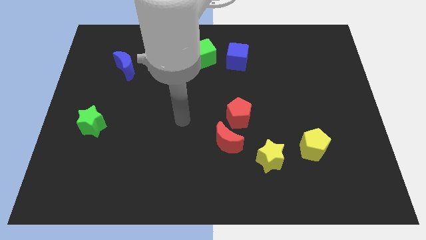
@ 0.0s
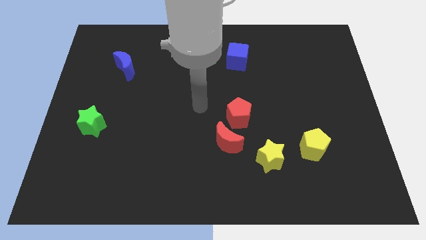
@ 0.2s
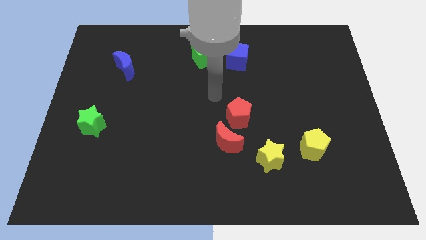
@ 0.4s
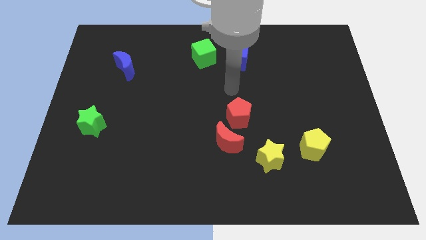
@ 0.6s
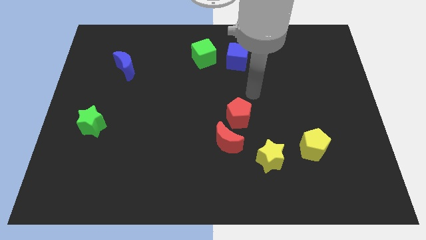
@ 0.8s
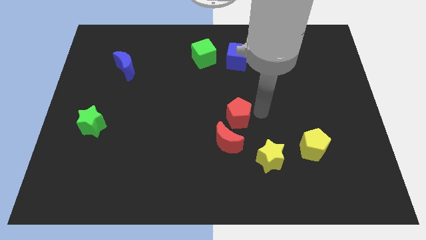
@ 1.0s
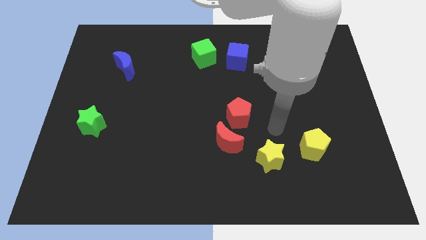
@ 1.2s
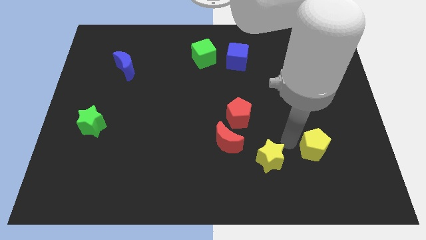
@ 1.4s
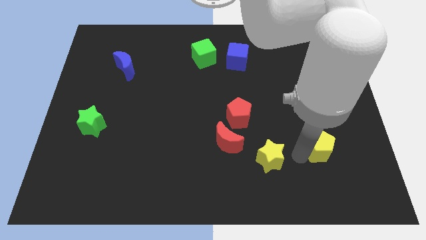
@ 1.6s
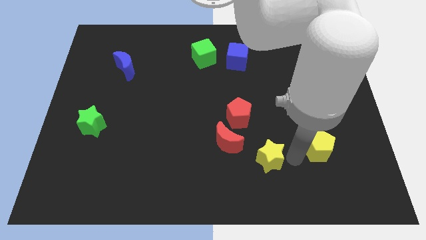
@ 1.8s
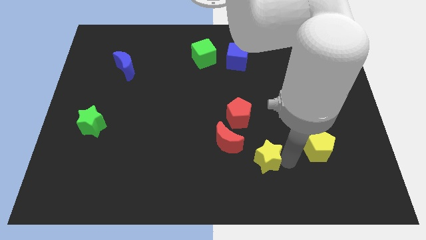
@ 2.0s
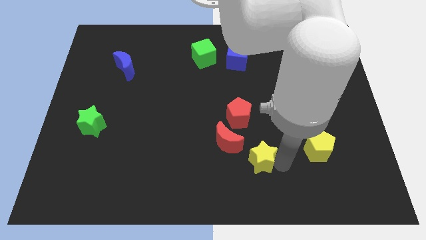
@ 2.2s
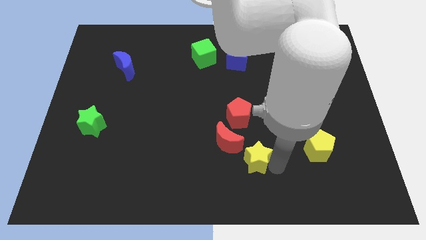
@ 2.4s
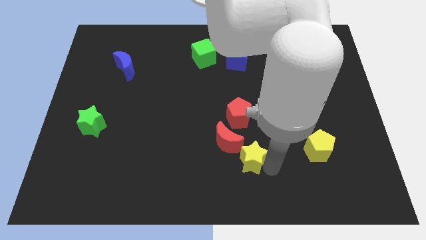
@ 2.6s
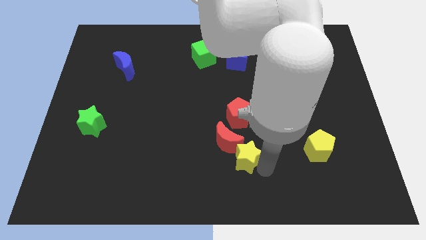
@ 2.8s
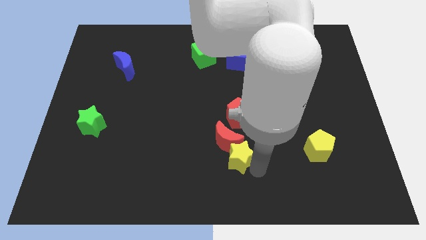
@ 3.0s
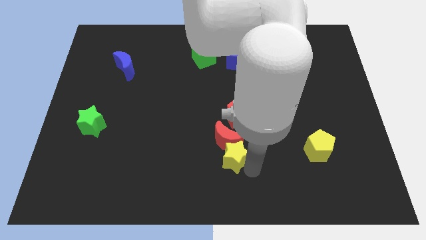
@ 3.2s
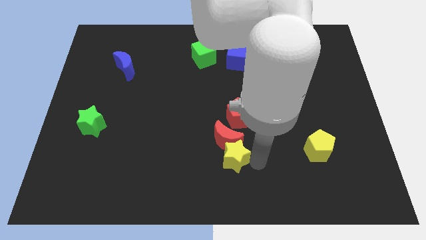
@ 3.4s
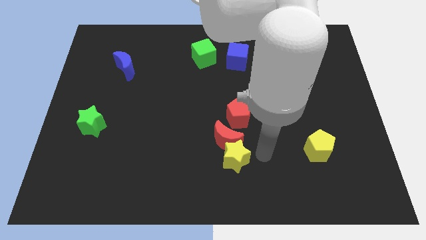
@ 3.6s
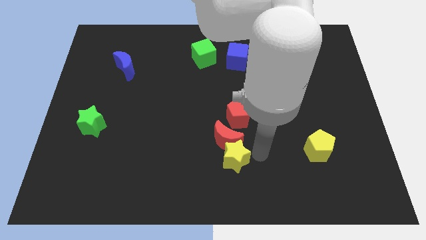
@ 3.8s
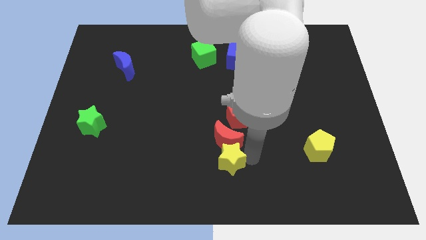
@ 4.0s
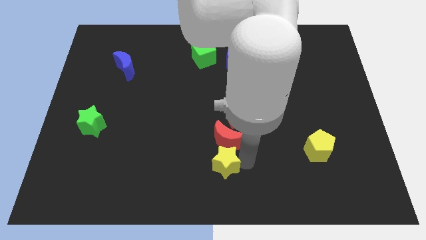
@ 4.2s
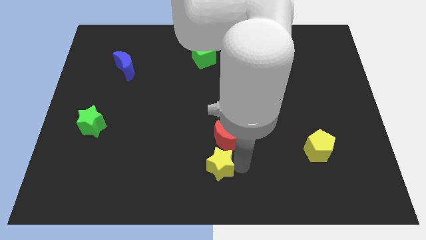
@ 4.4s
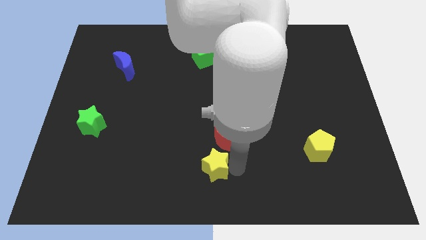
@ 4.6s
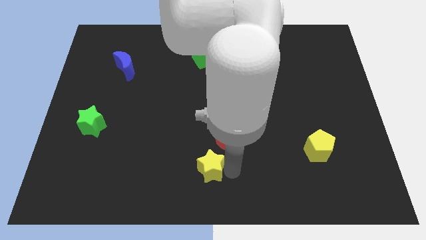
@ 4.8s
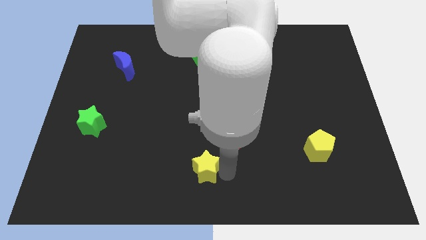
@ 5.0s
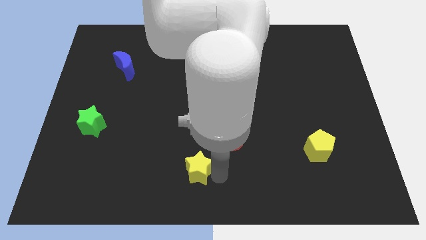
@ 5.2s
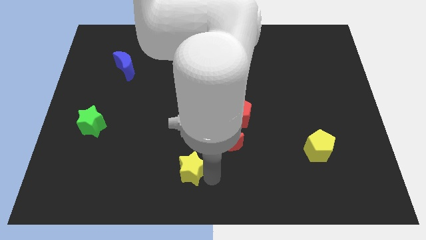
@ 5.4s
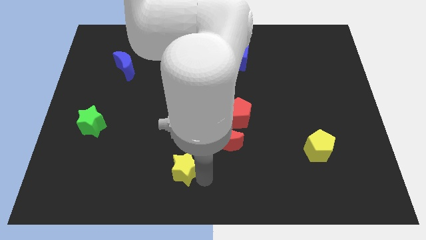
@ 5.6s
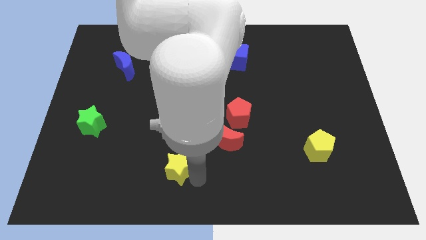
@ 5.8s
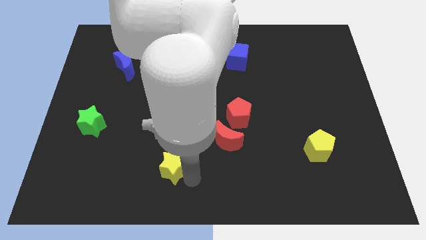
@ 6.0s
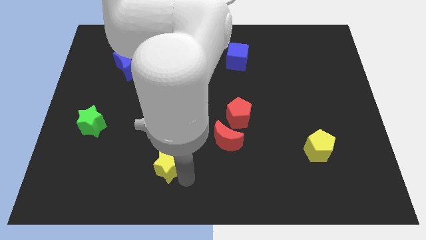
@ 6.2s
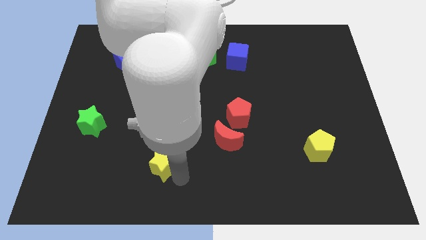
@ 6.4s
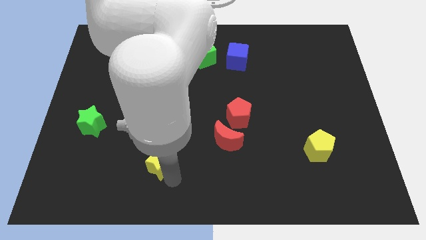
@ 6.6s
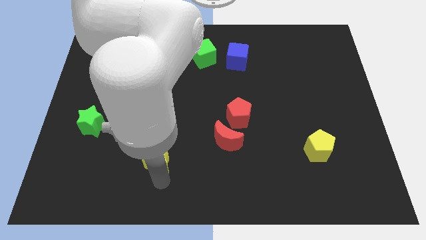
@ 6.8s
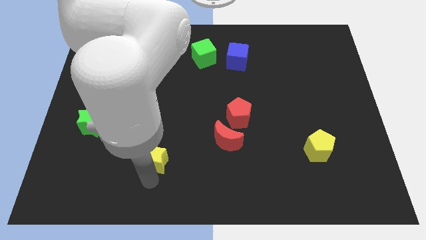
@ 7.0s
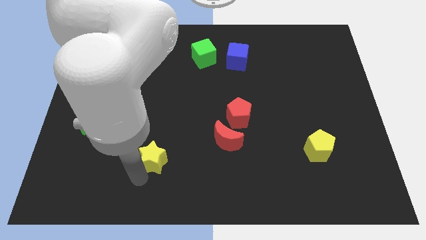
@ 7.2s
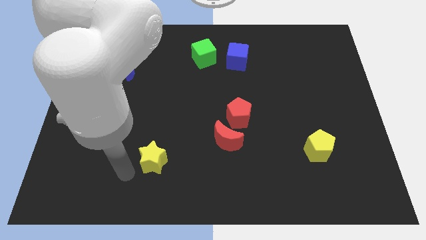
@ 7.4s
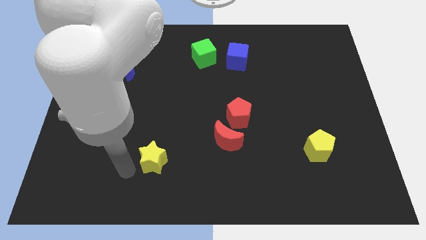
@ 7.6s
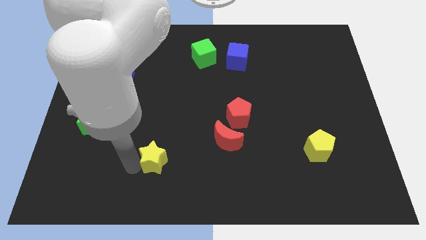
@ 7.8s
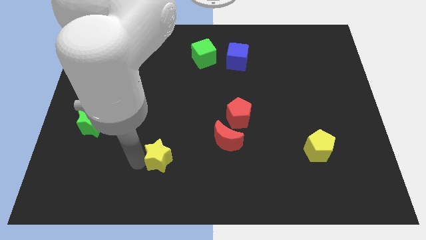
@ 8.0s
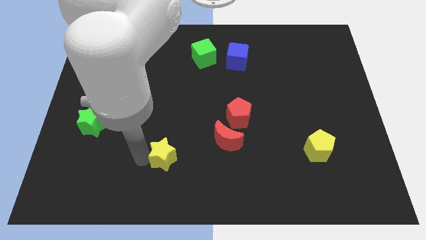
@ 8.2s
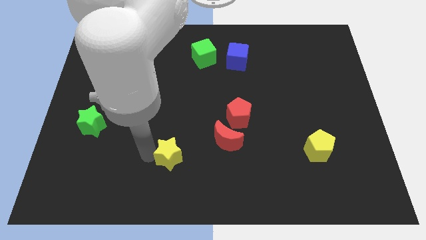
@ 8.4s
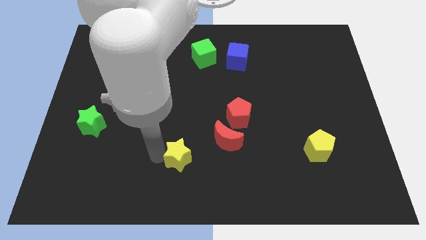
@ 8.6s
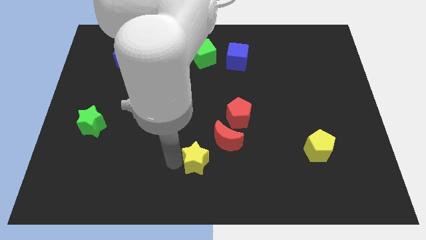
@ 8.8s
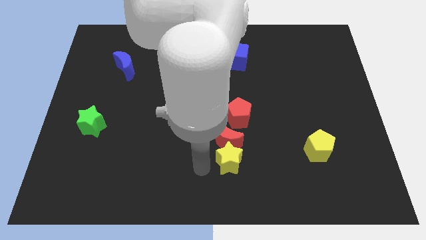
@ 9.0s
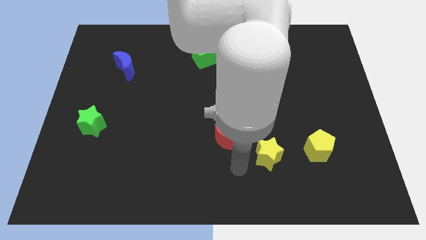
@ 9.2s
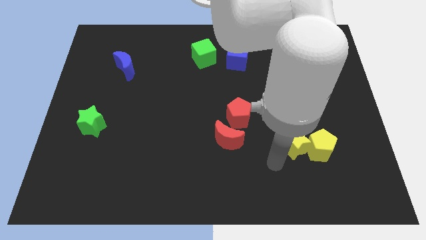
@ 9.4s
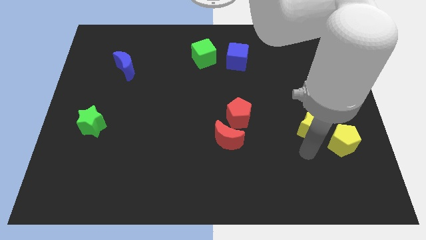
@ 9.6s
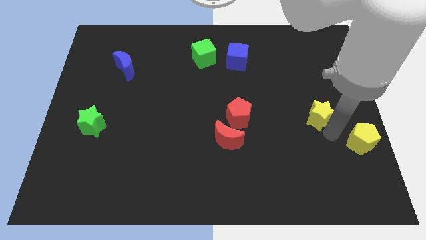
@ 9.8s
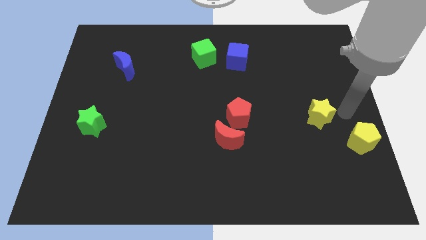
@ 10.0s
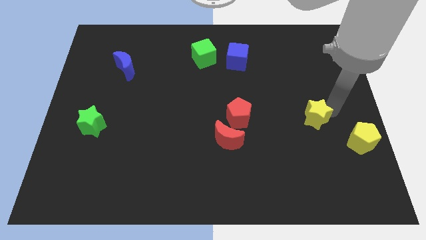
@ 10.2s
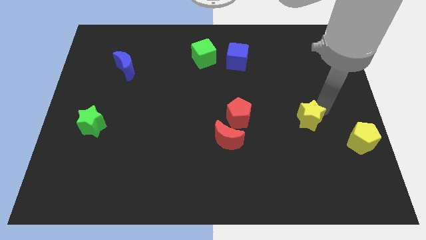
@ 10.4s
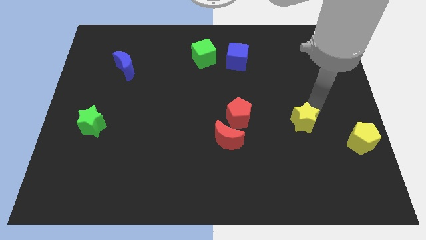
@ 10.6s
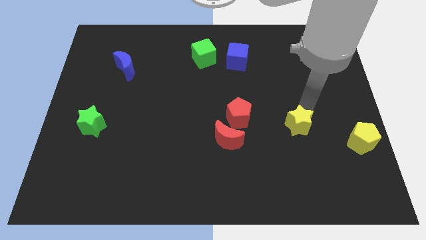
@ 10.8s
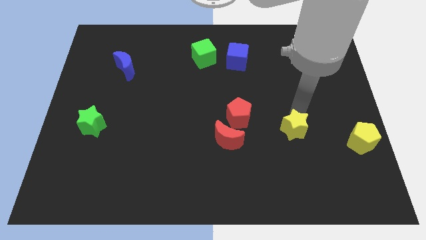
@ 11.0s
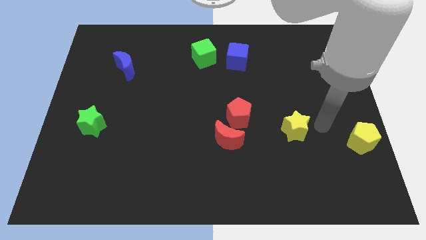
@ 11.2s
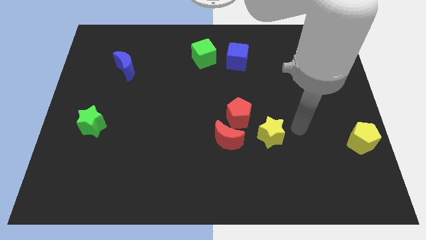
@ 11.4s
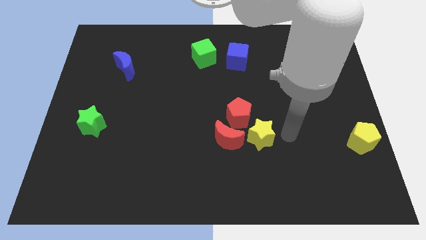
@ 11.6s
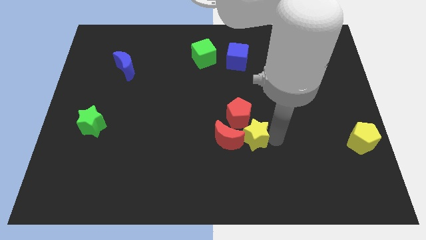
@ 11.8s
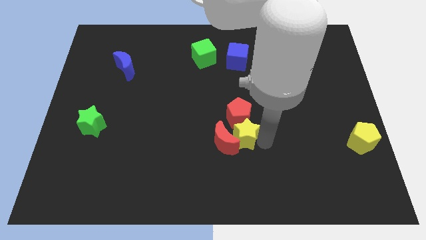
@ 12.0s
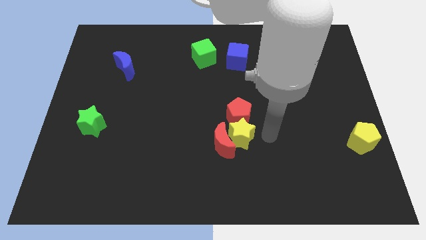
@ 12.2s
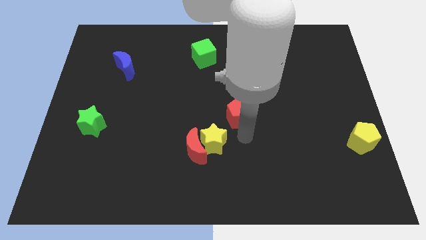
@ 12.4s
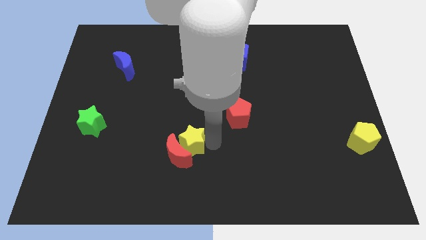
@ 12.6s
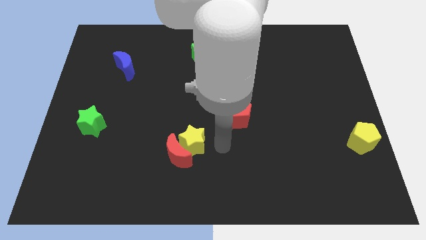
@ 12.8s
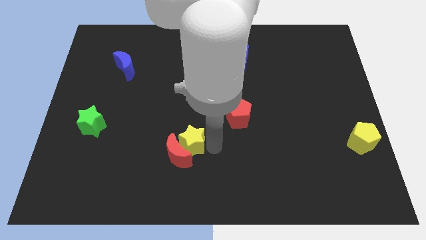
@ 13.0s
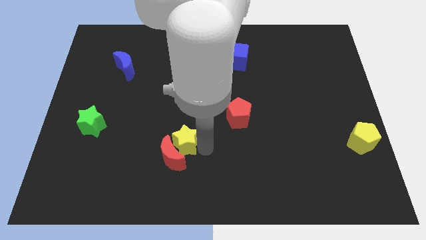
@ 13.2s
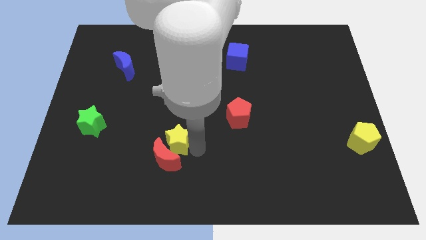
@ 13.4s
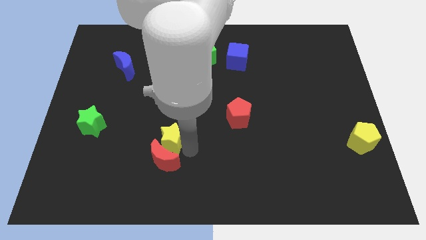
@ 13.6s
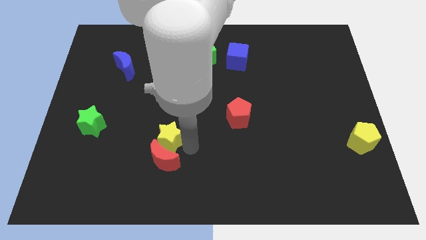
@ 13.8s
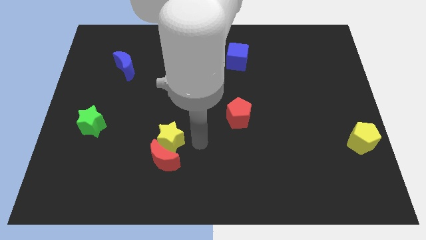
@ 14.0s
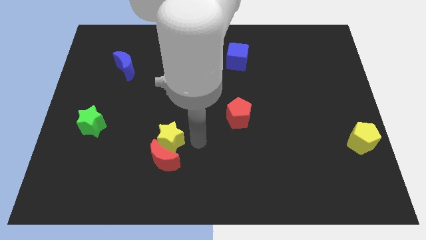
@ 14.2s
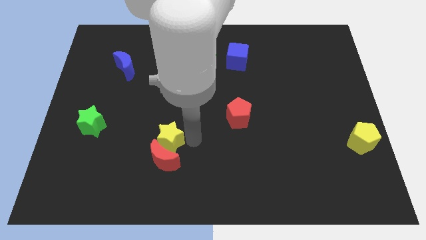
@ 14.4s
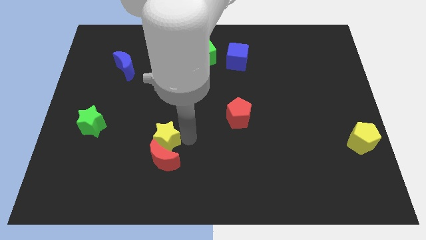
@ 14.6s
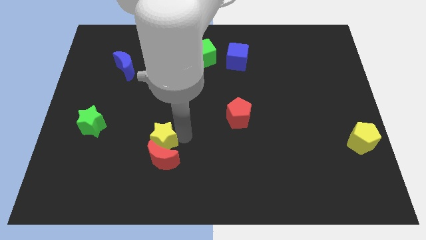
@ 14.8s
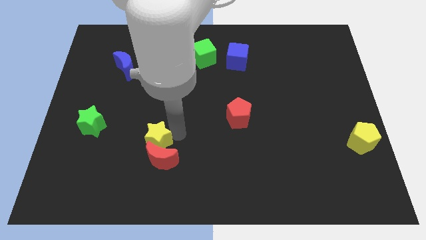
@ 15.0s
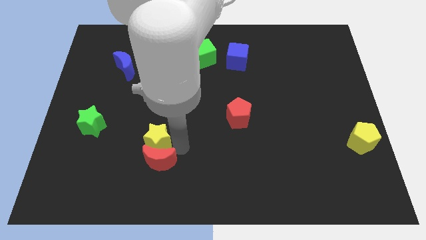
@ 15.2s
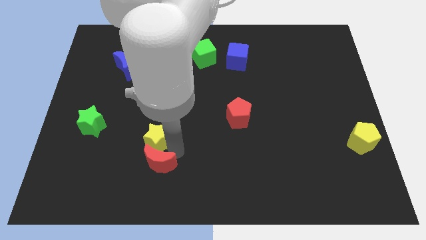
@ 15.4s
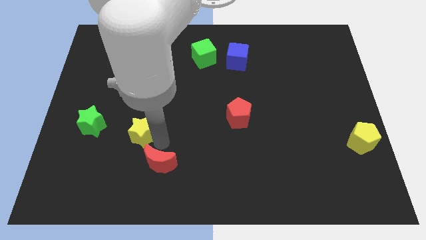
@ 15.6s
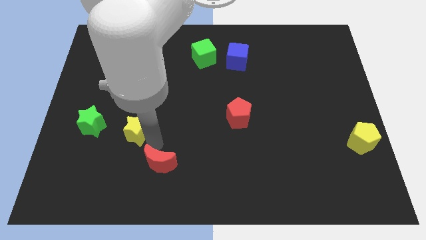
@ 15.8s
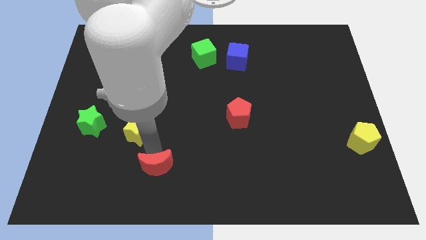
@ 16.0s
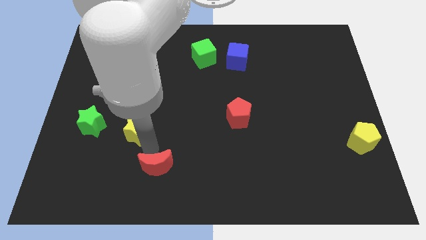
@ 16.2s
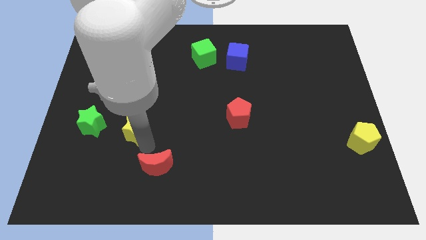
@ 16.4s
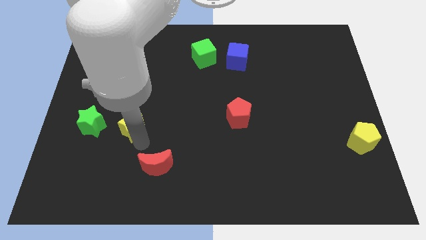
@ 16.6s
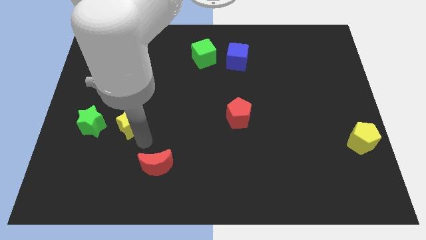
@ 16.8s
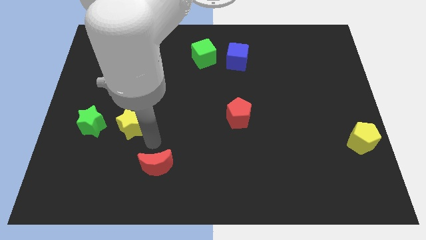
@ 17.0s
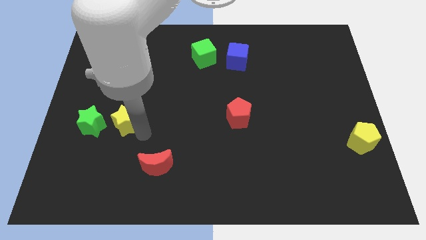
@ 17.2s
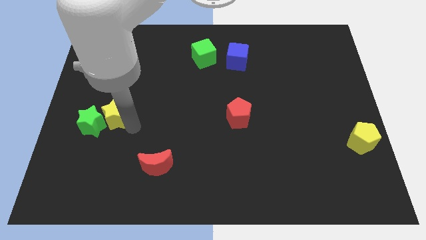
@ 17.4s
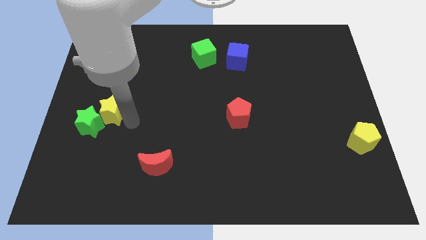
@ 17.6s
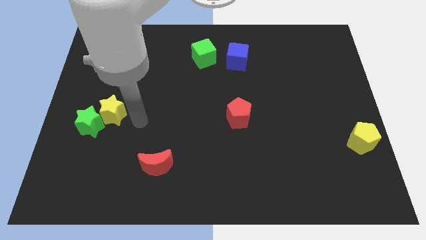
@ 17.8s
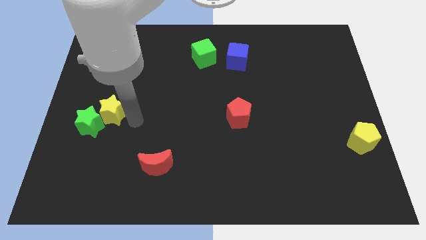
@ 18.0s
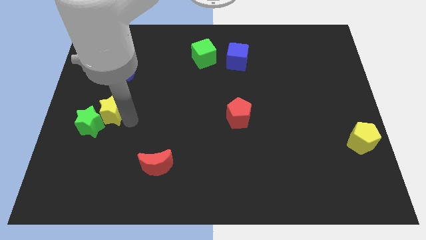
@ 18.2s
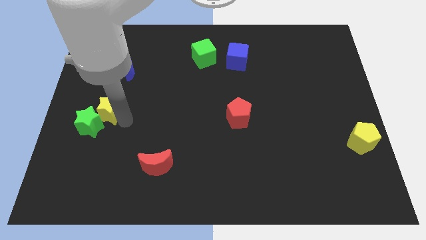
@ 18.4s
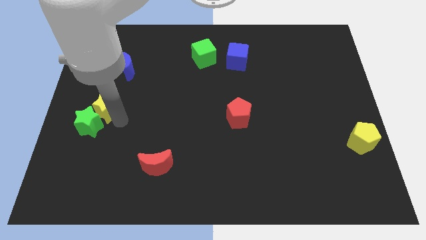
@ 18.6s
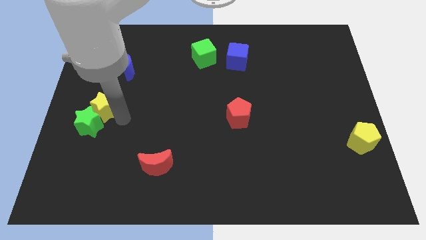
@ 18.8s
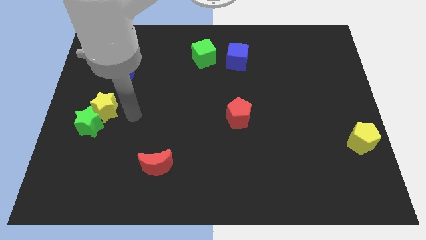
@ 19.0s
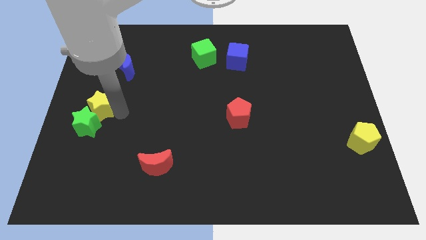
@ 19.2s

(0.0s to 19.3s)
slide the yellow star to the center left
